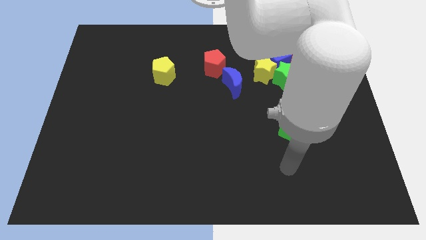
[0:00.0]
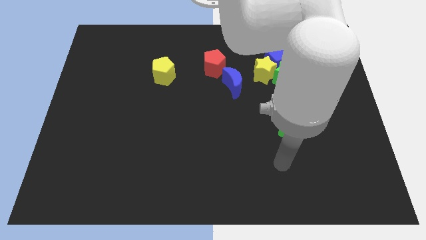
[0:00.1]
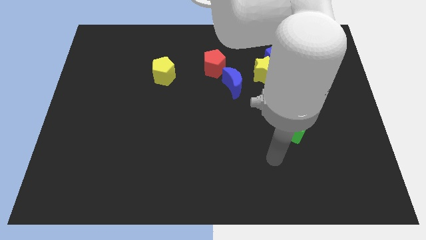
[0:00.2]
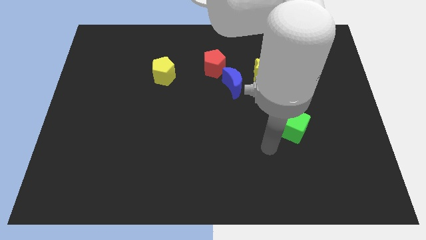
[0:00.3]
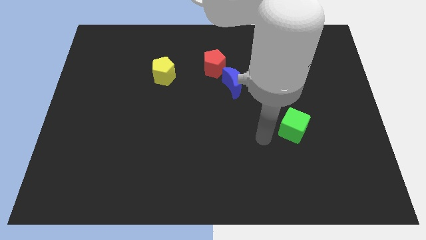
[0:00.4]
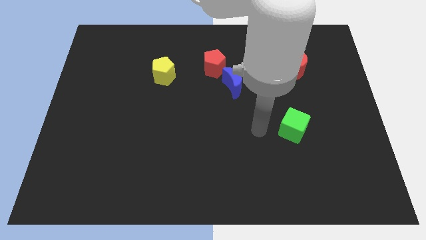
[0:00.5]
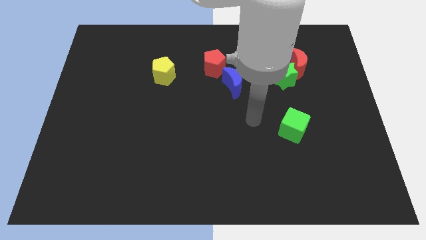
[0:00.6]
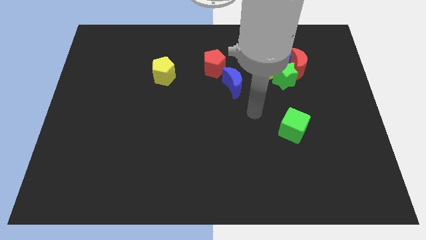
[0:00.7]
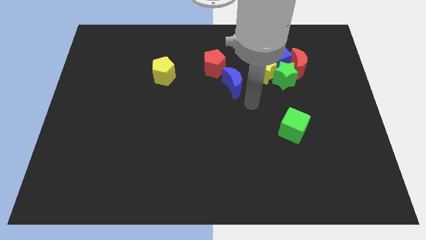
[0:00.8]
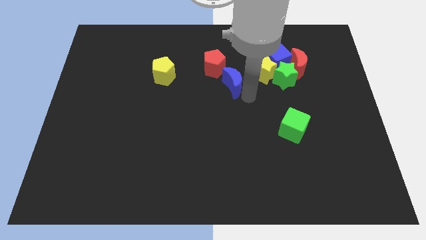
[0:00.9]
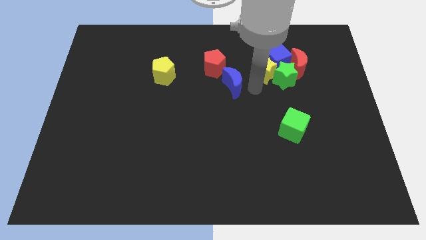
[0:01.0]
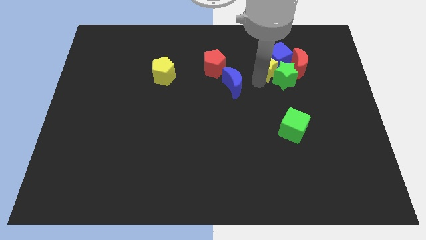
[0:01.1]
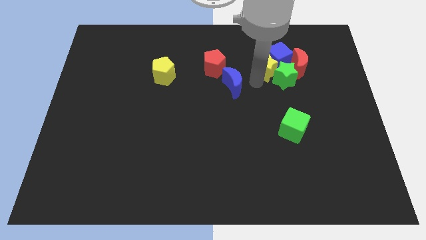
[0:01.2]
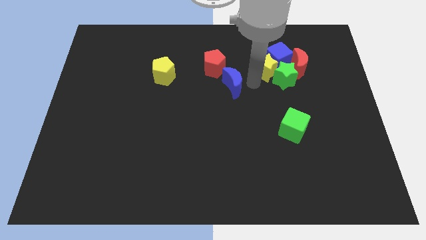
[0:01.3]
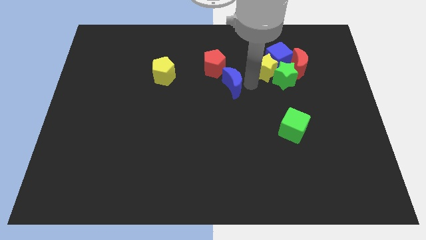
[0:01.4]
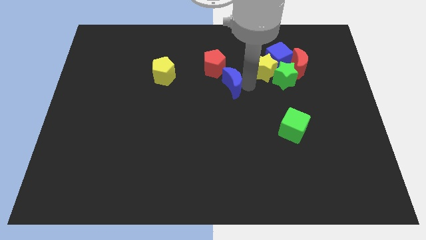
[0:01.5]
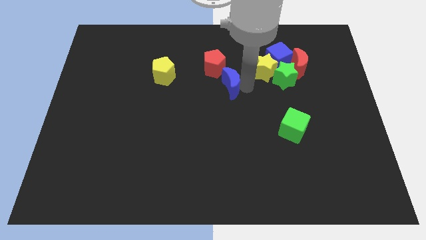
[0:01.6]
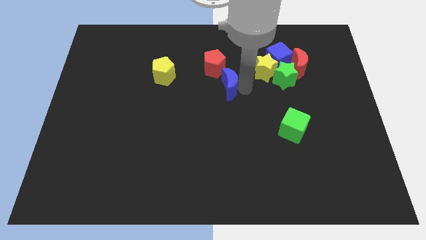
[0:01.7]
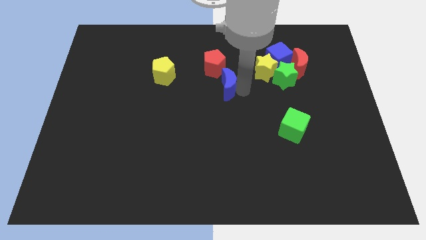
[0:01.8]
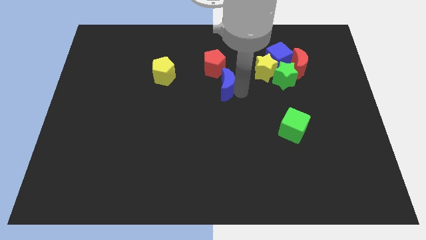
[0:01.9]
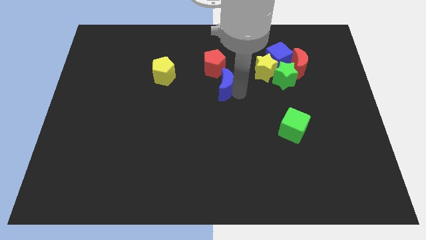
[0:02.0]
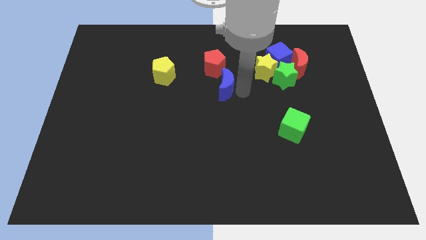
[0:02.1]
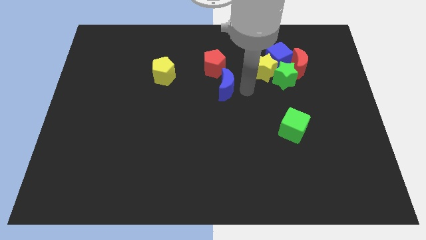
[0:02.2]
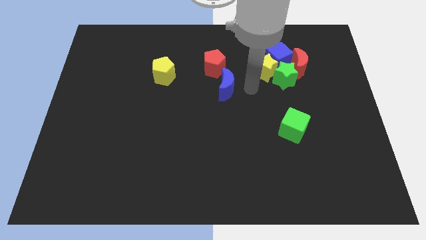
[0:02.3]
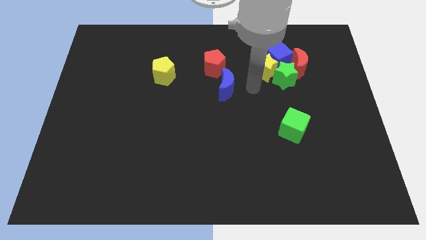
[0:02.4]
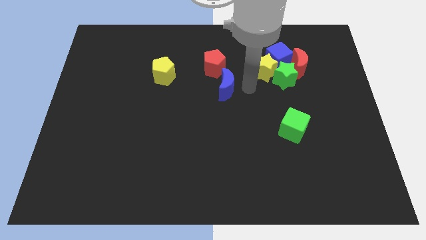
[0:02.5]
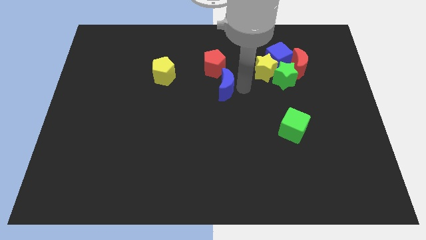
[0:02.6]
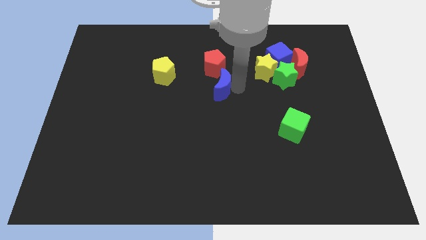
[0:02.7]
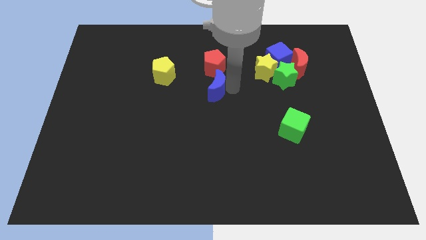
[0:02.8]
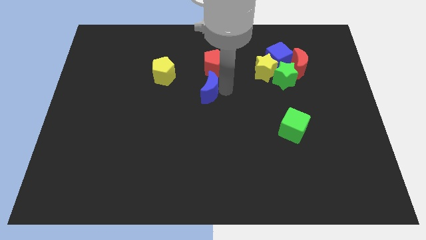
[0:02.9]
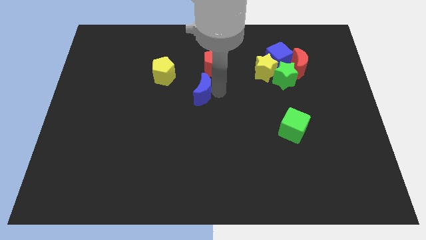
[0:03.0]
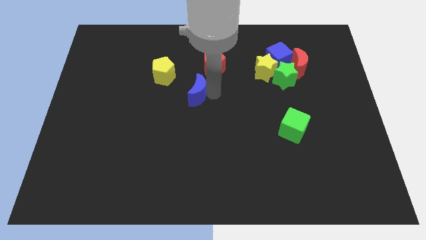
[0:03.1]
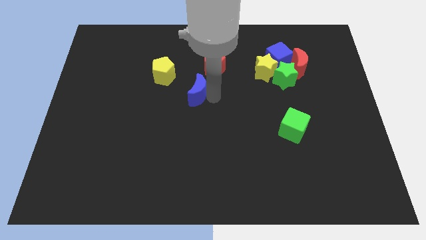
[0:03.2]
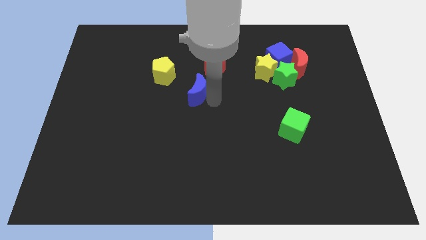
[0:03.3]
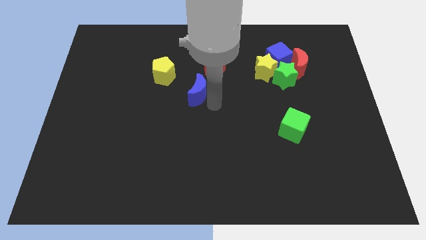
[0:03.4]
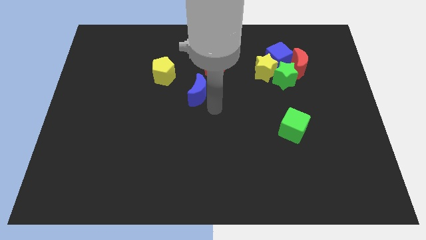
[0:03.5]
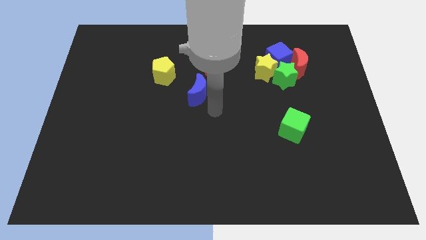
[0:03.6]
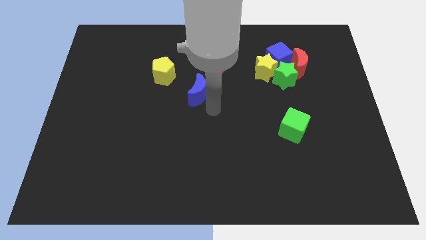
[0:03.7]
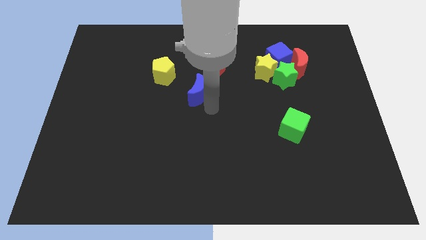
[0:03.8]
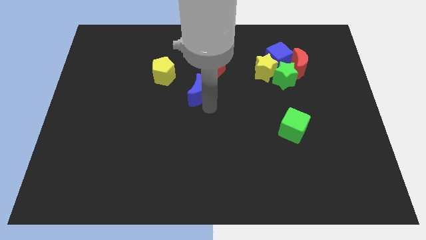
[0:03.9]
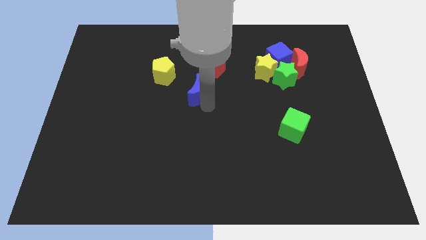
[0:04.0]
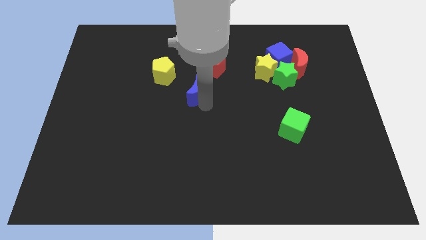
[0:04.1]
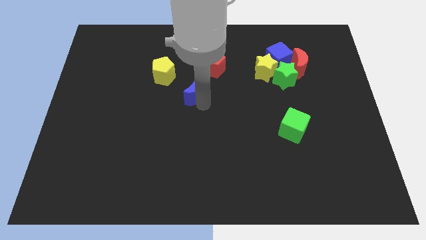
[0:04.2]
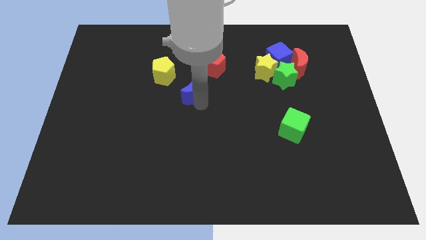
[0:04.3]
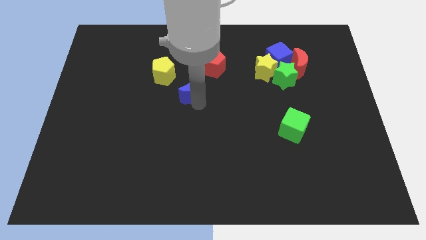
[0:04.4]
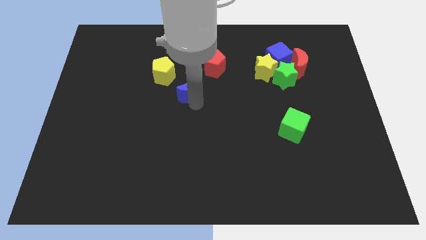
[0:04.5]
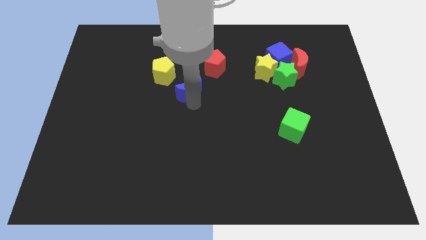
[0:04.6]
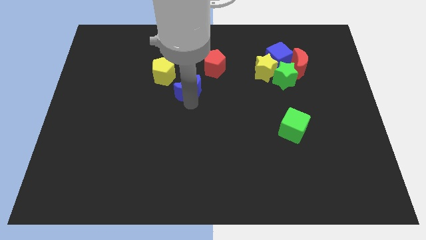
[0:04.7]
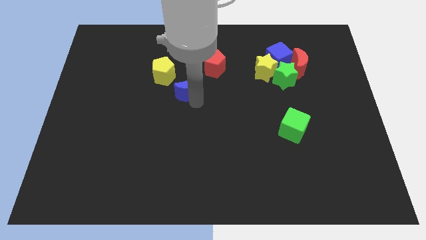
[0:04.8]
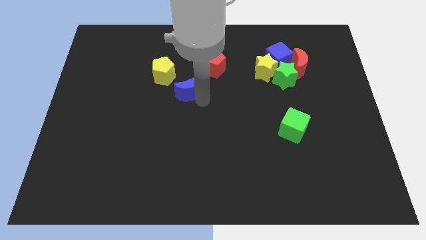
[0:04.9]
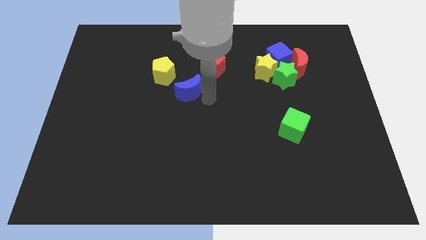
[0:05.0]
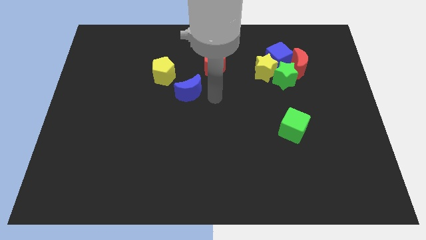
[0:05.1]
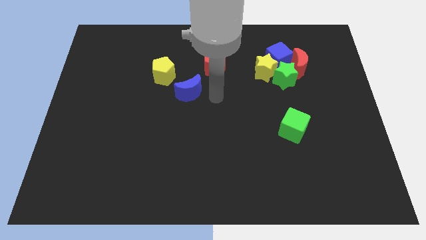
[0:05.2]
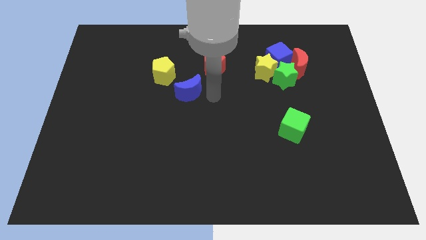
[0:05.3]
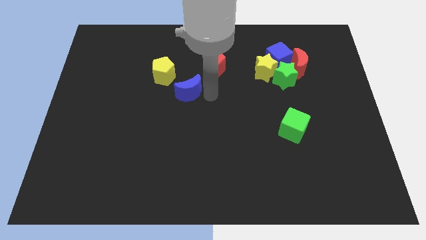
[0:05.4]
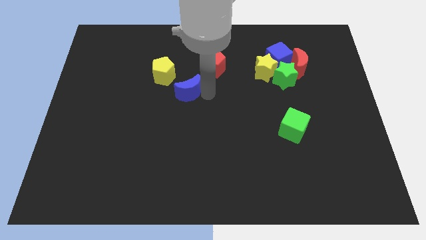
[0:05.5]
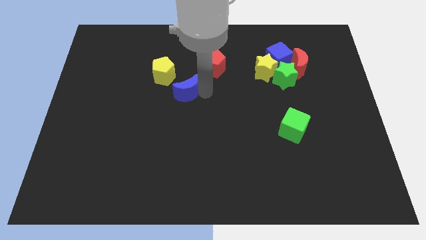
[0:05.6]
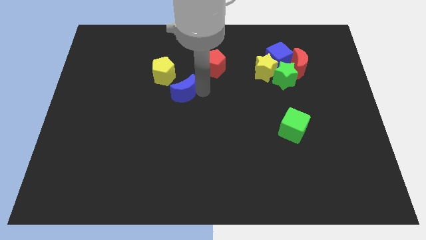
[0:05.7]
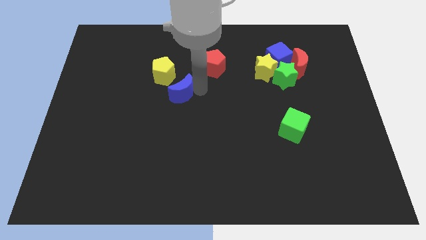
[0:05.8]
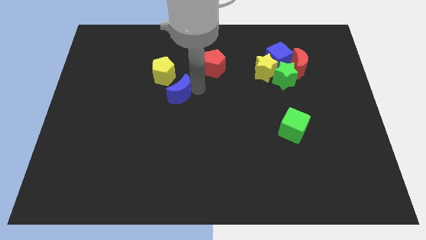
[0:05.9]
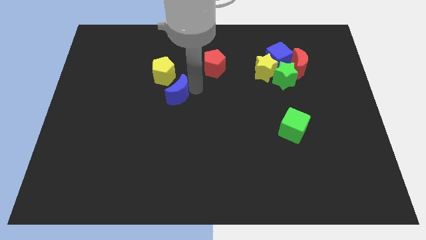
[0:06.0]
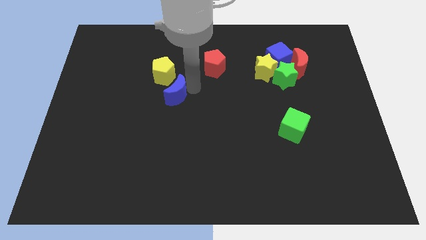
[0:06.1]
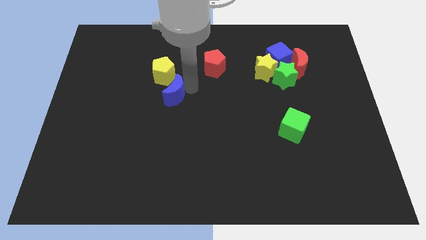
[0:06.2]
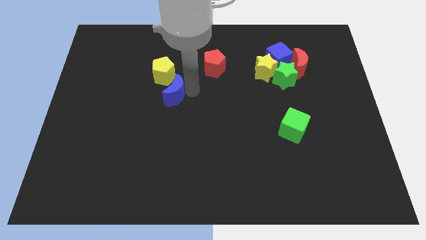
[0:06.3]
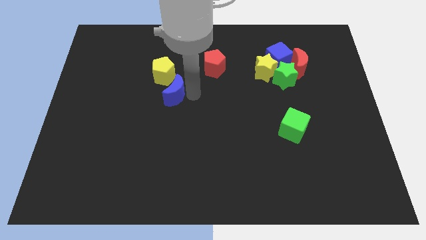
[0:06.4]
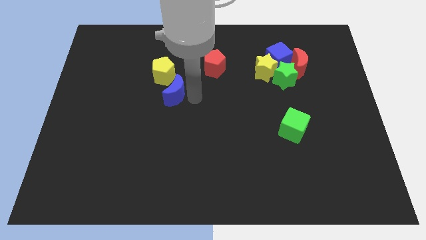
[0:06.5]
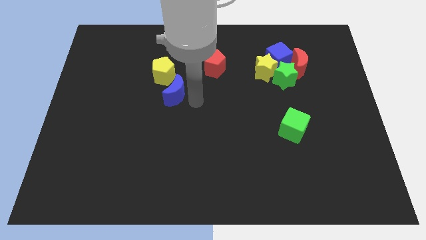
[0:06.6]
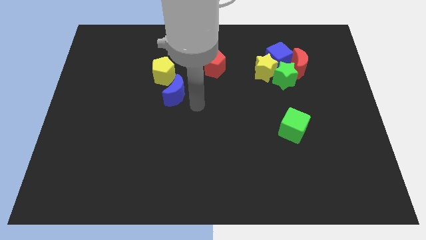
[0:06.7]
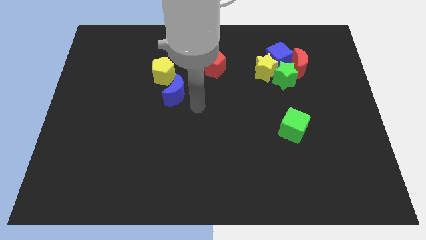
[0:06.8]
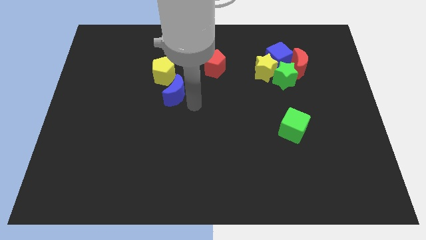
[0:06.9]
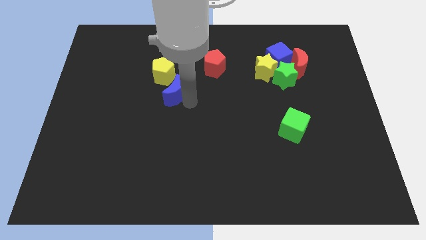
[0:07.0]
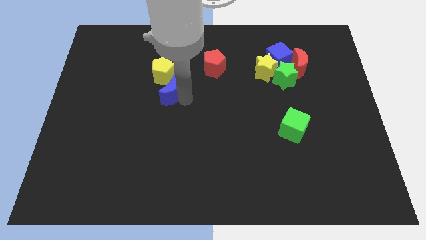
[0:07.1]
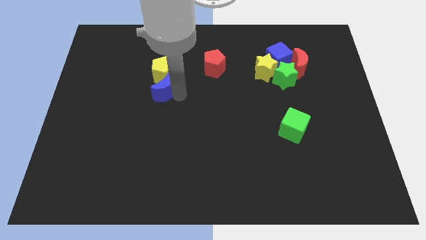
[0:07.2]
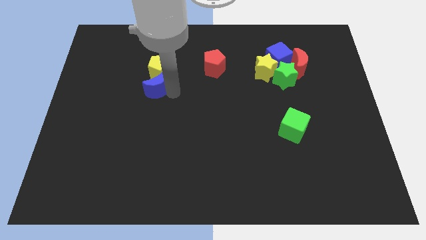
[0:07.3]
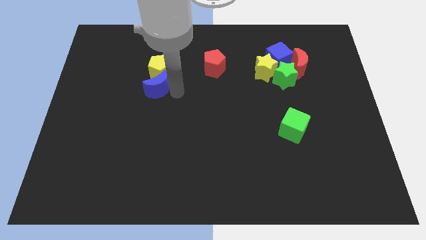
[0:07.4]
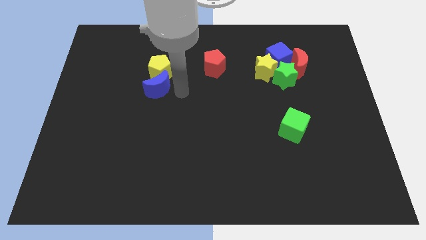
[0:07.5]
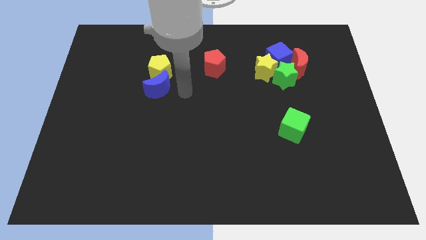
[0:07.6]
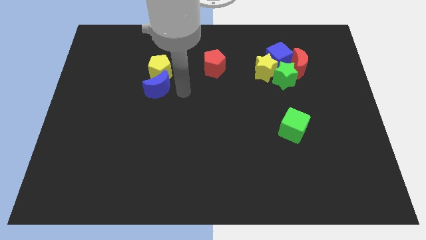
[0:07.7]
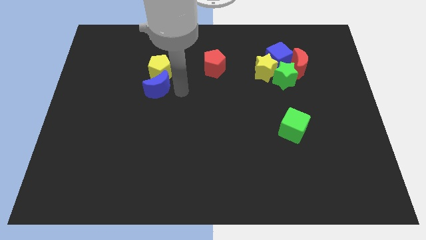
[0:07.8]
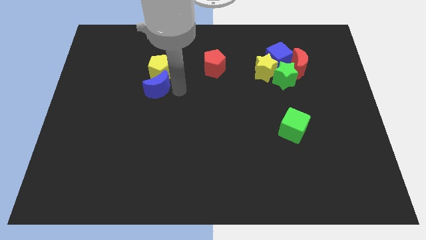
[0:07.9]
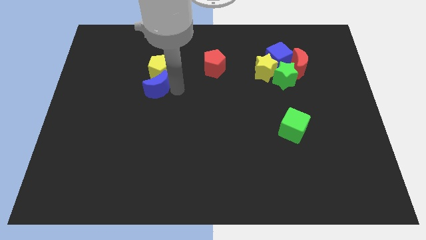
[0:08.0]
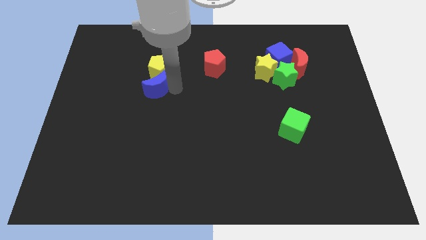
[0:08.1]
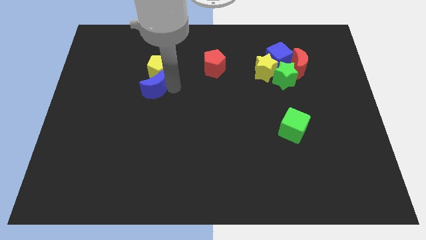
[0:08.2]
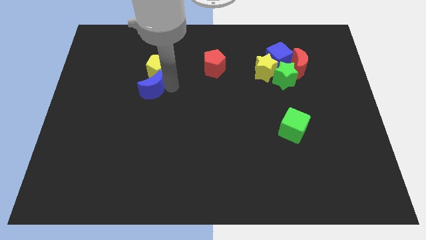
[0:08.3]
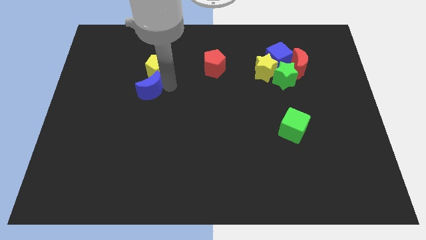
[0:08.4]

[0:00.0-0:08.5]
push the blue moon left
